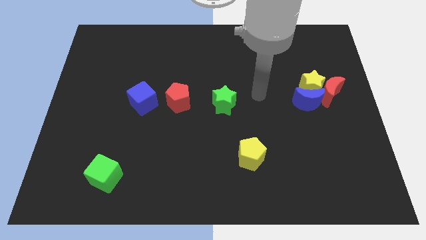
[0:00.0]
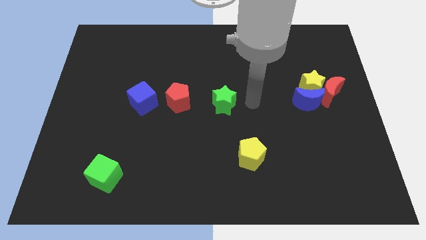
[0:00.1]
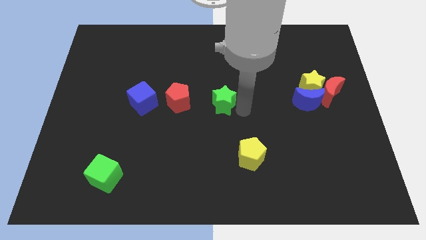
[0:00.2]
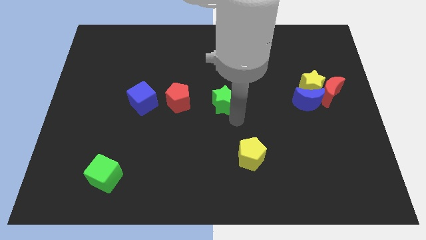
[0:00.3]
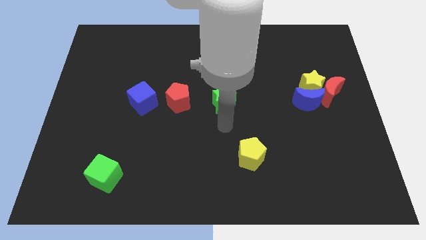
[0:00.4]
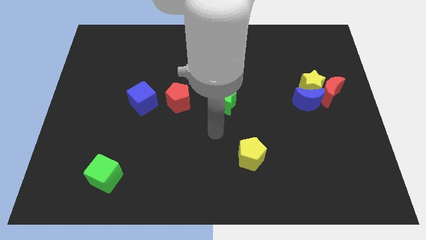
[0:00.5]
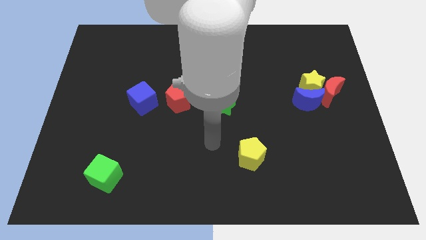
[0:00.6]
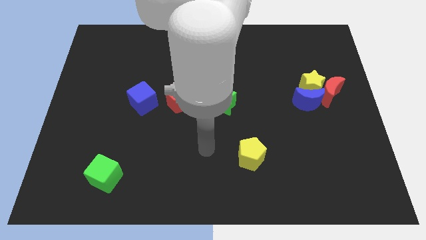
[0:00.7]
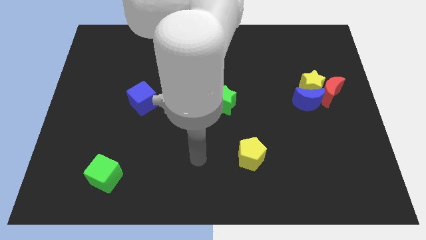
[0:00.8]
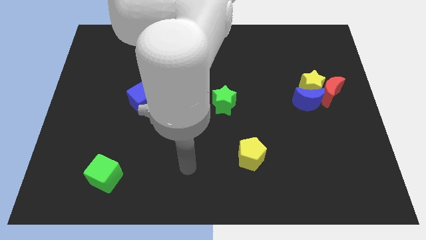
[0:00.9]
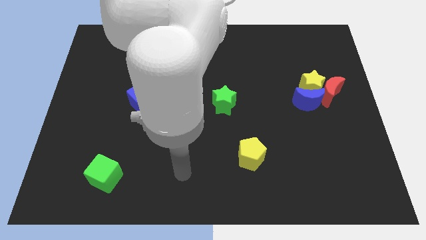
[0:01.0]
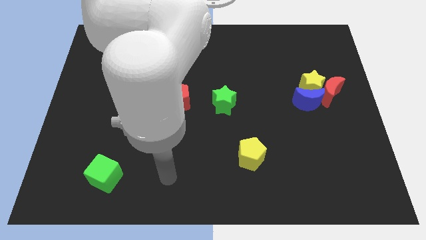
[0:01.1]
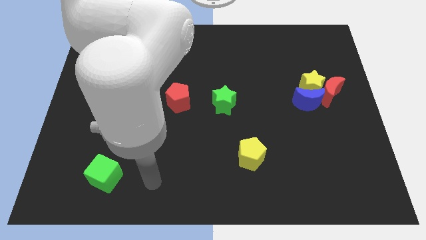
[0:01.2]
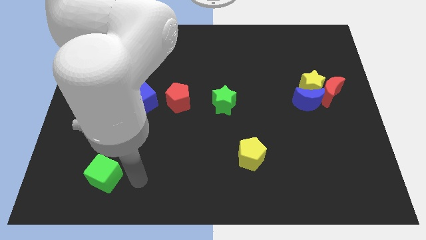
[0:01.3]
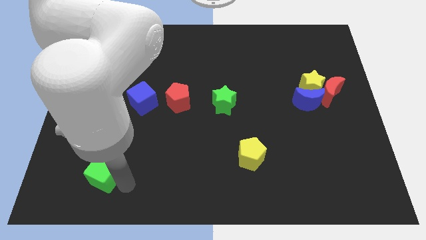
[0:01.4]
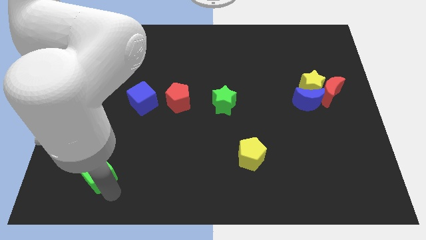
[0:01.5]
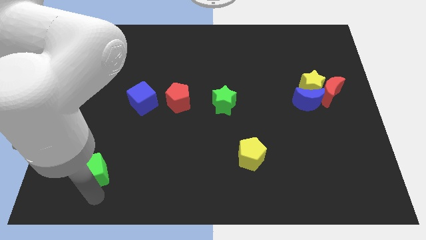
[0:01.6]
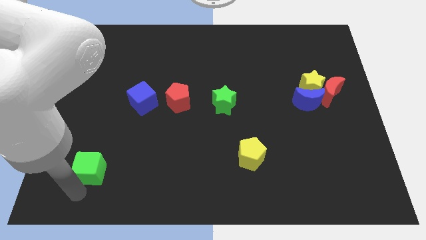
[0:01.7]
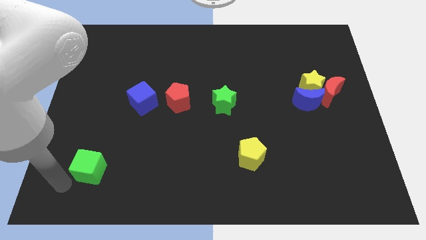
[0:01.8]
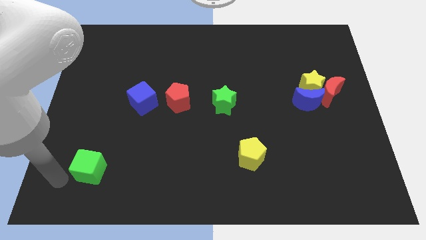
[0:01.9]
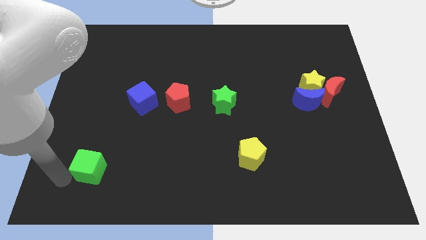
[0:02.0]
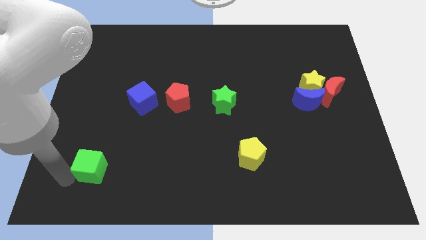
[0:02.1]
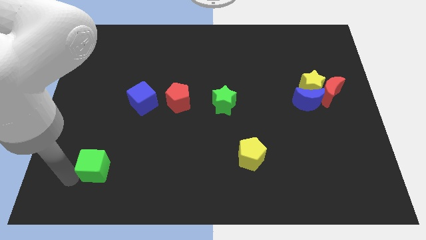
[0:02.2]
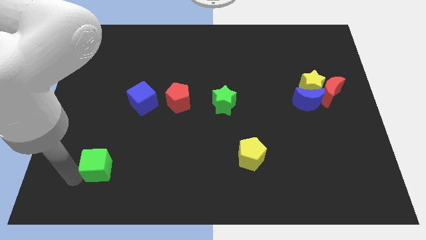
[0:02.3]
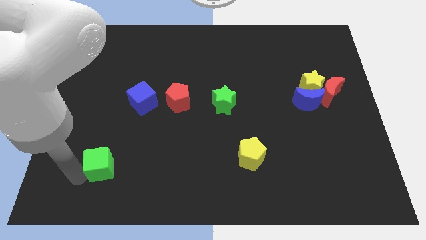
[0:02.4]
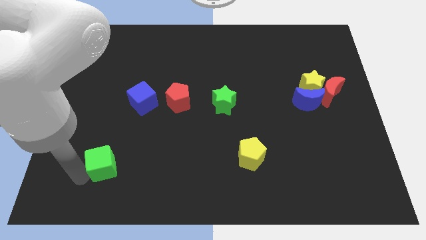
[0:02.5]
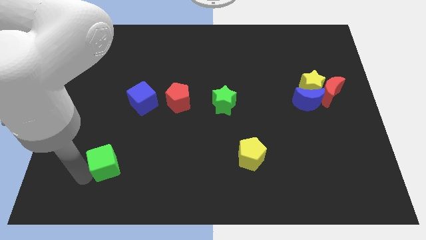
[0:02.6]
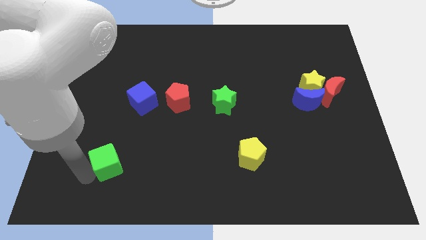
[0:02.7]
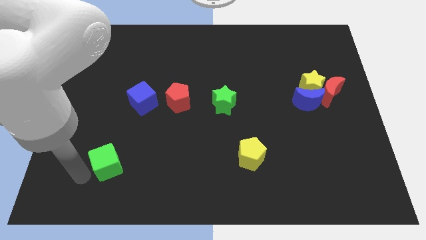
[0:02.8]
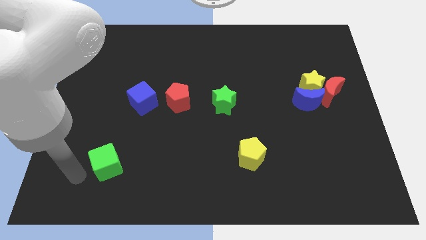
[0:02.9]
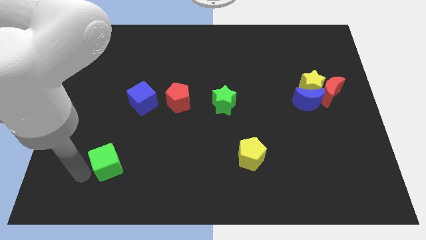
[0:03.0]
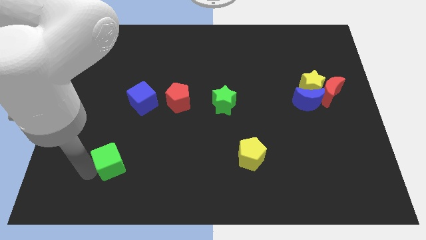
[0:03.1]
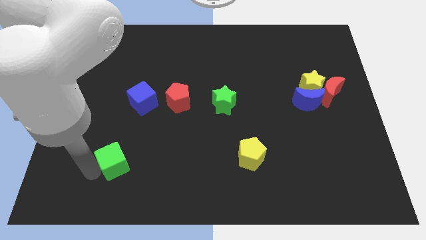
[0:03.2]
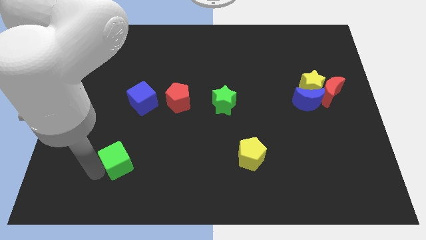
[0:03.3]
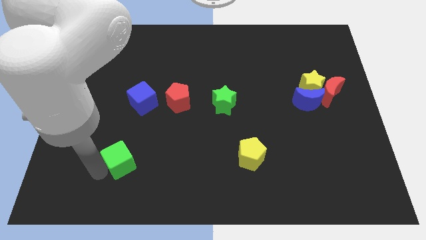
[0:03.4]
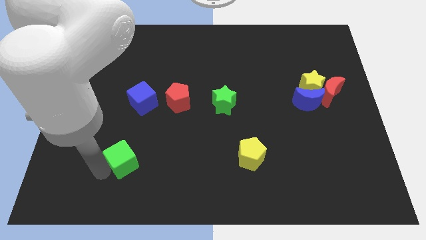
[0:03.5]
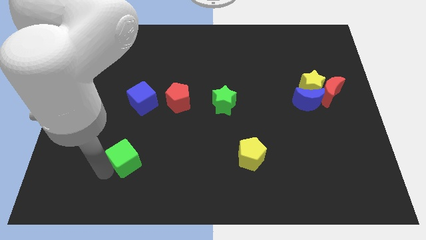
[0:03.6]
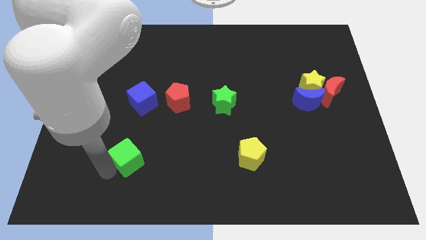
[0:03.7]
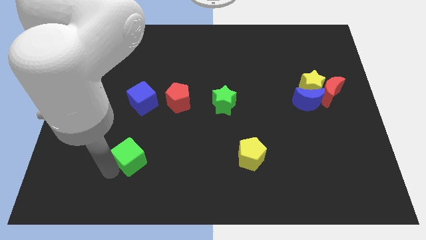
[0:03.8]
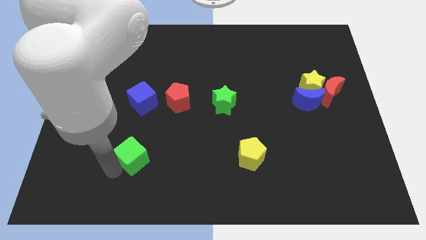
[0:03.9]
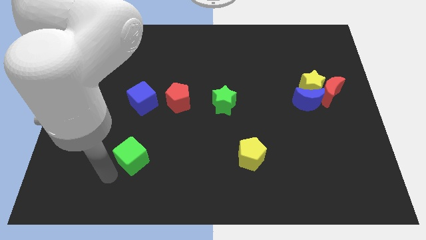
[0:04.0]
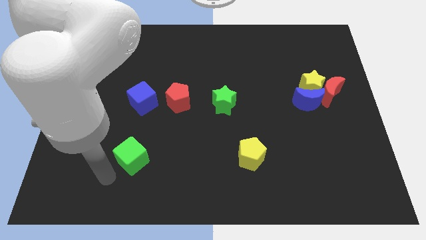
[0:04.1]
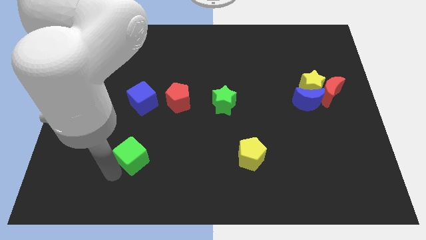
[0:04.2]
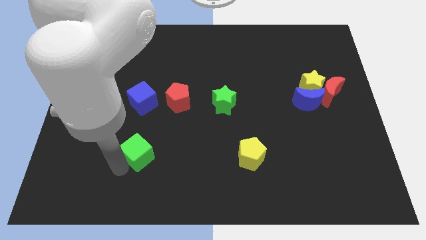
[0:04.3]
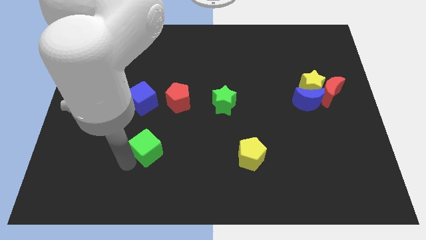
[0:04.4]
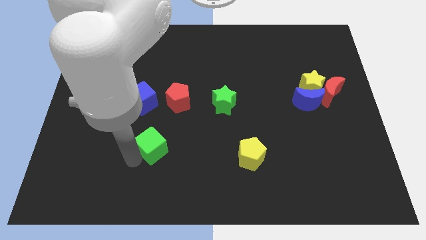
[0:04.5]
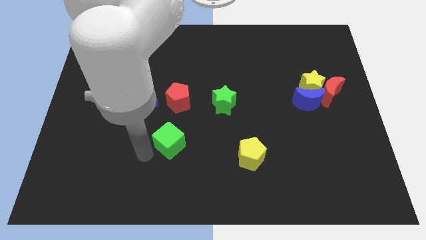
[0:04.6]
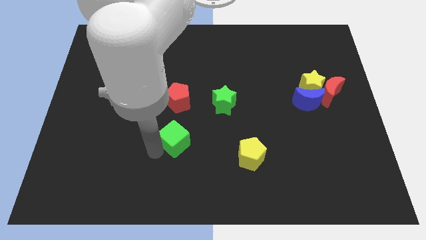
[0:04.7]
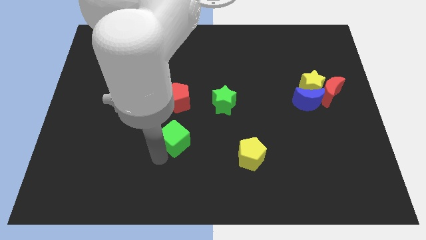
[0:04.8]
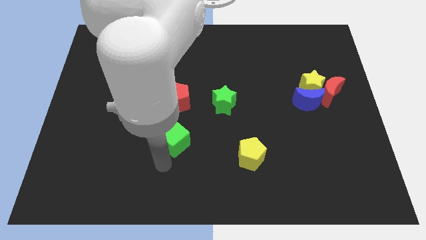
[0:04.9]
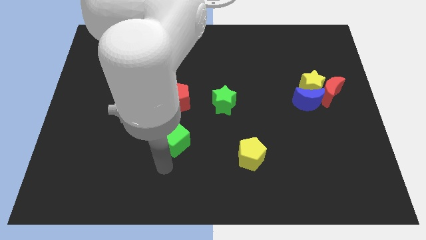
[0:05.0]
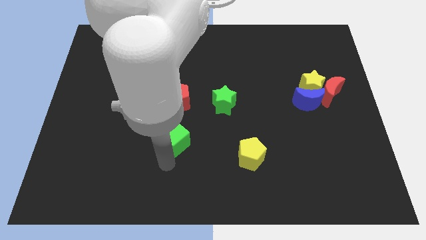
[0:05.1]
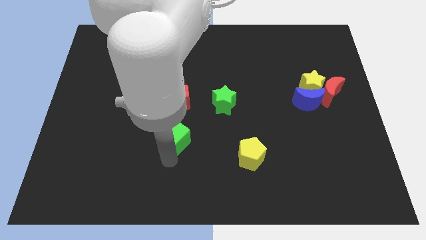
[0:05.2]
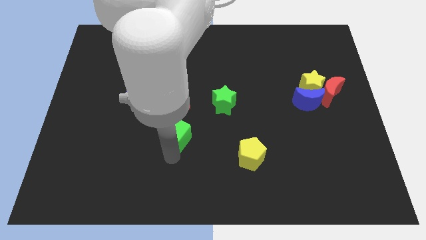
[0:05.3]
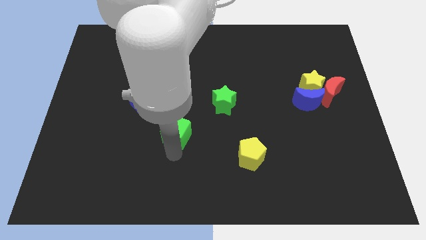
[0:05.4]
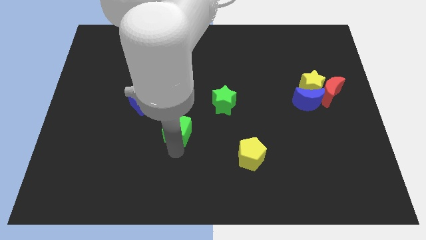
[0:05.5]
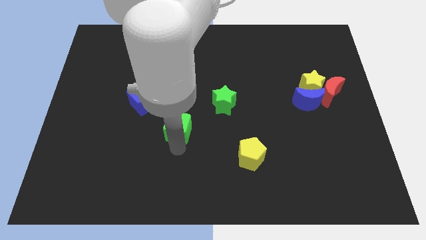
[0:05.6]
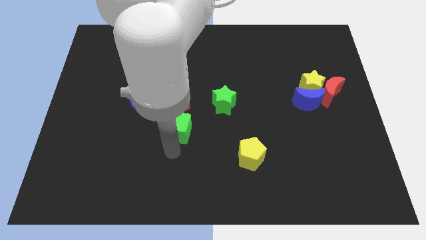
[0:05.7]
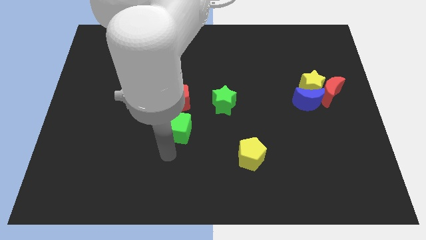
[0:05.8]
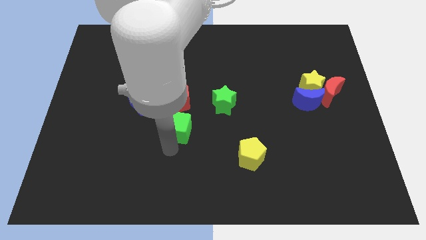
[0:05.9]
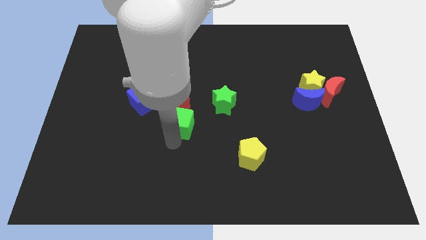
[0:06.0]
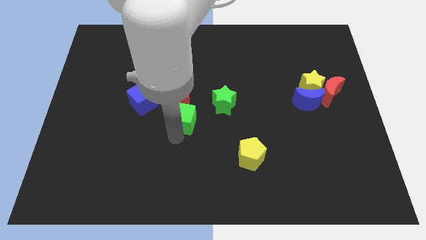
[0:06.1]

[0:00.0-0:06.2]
slide the green cube up and then to the right

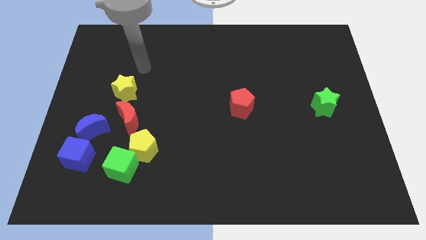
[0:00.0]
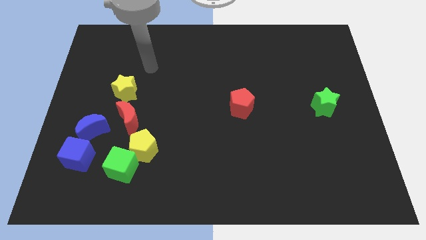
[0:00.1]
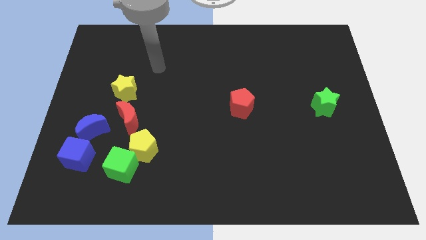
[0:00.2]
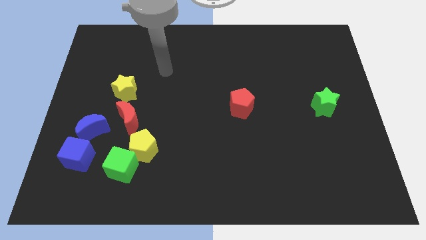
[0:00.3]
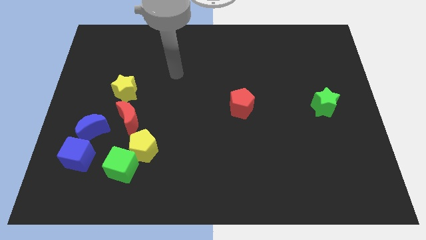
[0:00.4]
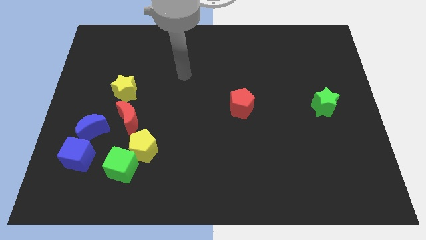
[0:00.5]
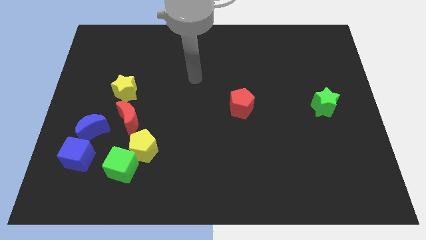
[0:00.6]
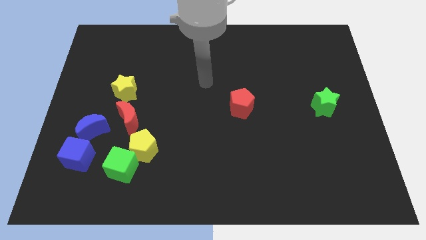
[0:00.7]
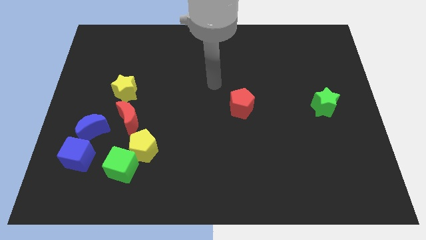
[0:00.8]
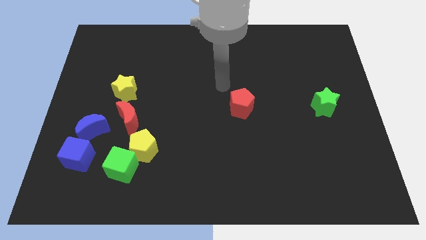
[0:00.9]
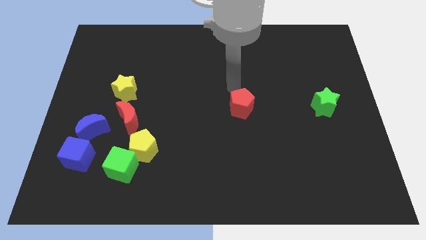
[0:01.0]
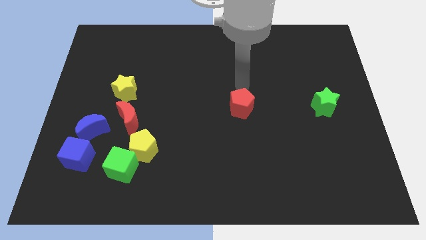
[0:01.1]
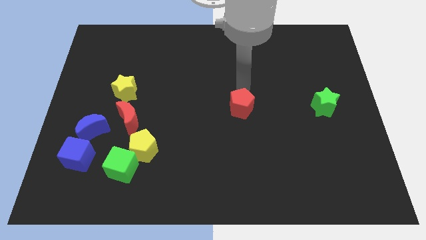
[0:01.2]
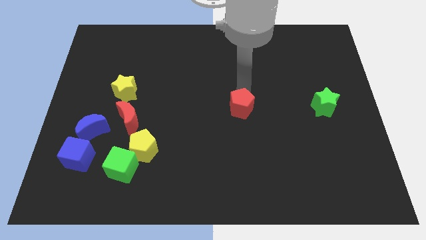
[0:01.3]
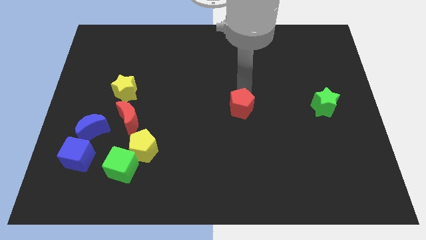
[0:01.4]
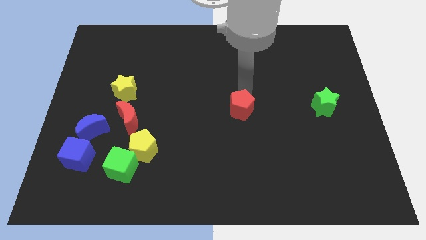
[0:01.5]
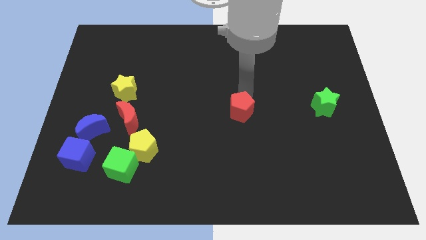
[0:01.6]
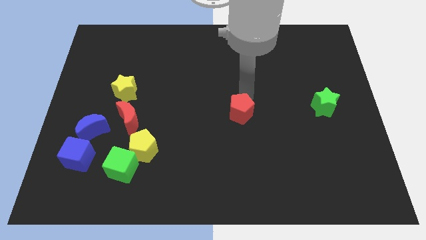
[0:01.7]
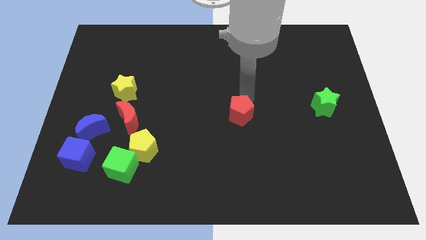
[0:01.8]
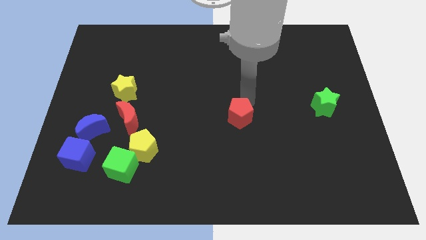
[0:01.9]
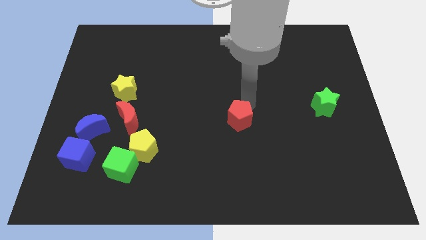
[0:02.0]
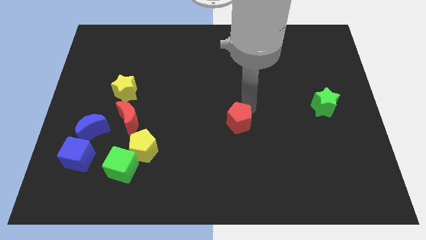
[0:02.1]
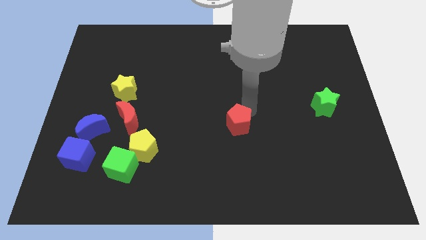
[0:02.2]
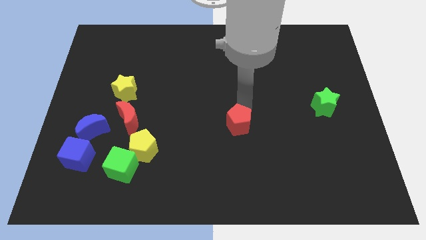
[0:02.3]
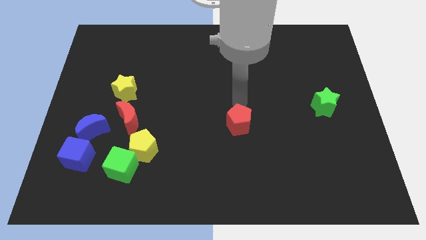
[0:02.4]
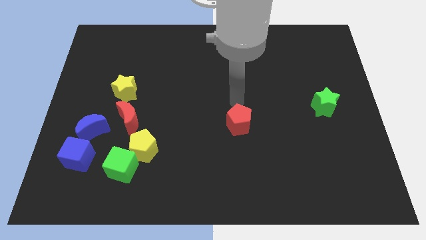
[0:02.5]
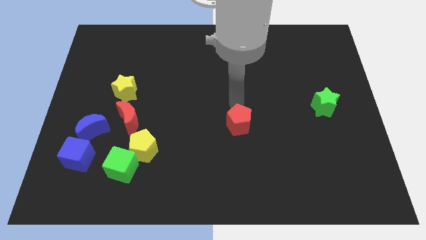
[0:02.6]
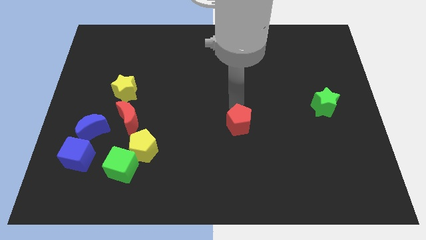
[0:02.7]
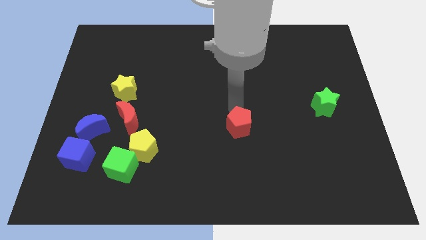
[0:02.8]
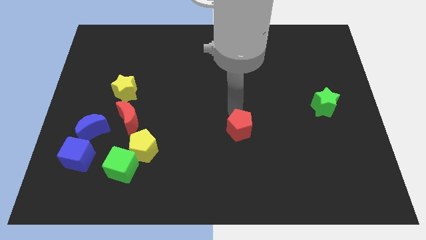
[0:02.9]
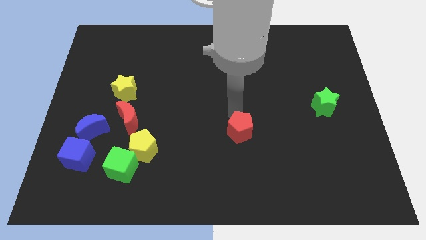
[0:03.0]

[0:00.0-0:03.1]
move the red pentagon downwards a bit
